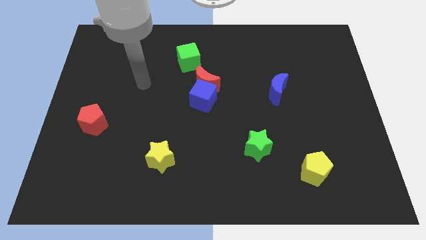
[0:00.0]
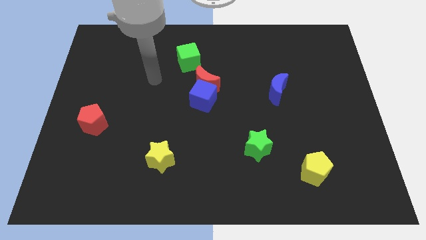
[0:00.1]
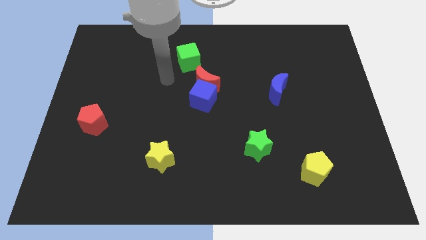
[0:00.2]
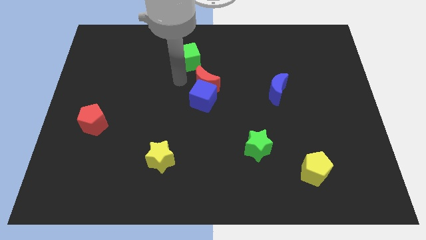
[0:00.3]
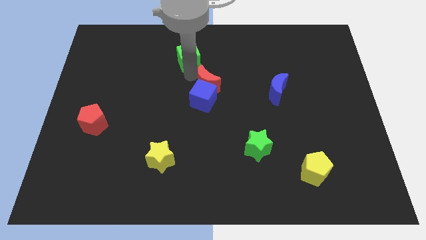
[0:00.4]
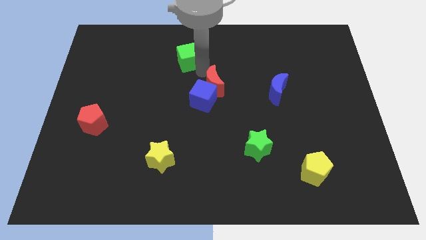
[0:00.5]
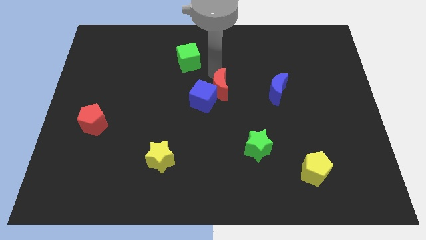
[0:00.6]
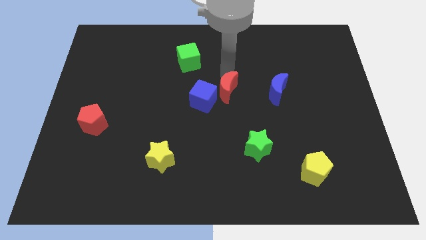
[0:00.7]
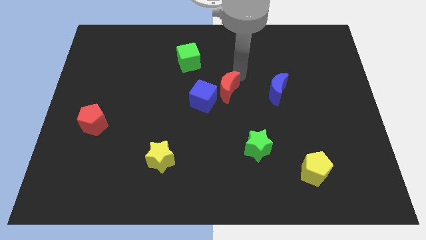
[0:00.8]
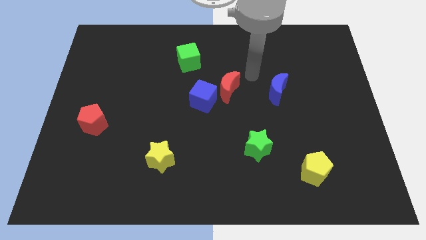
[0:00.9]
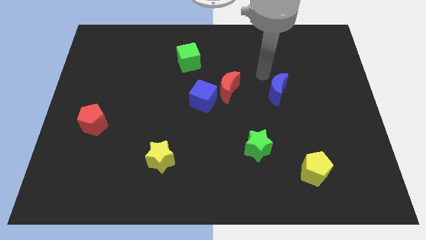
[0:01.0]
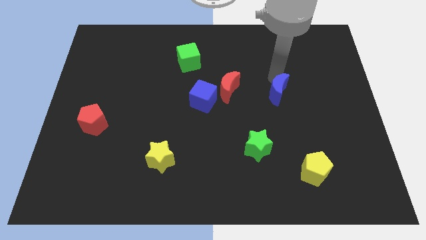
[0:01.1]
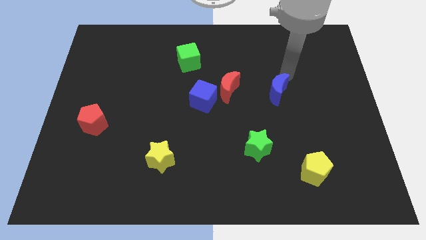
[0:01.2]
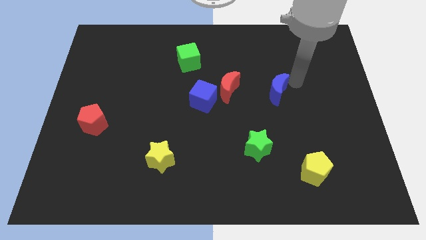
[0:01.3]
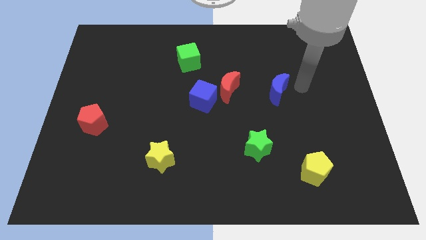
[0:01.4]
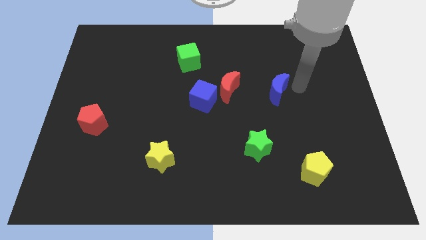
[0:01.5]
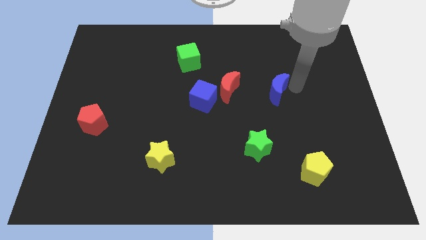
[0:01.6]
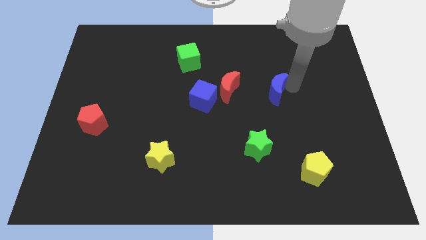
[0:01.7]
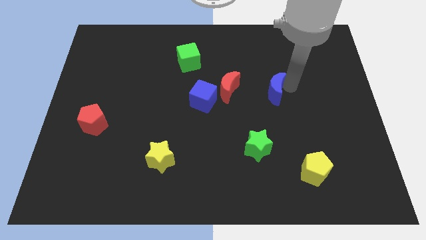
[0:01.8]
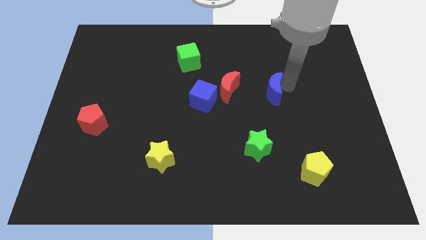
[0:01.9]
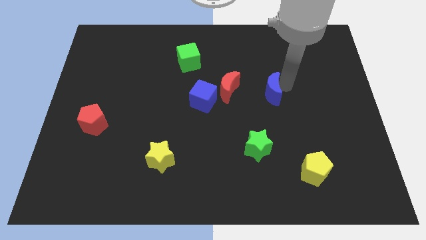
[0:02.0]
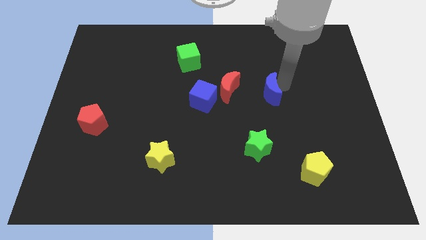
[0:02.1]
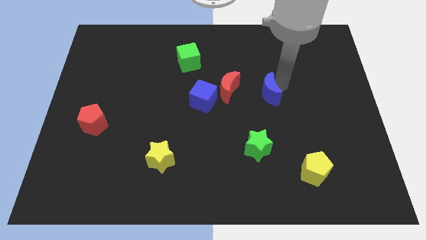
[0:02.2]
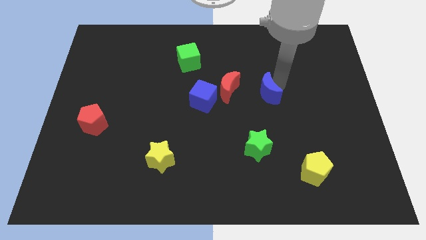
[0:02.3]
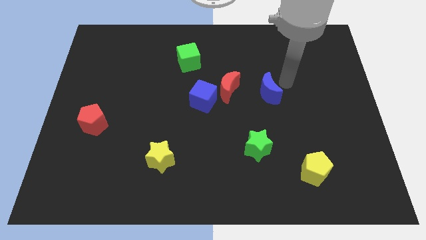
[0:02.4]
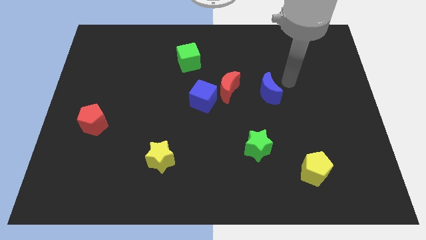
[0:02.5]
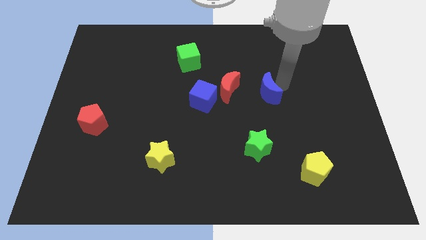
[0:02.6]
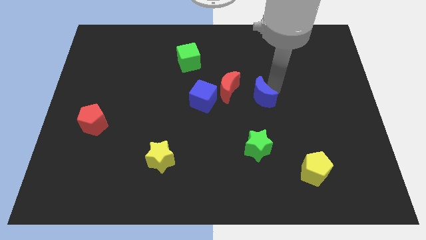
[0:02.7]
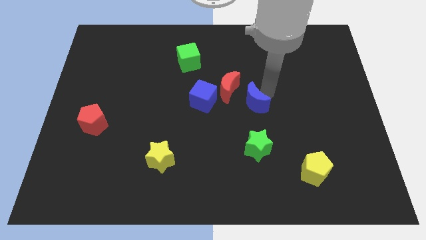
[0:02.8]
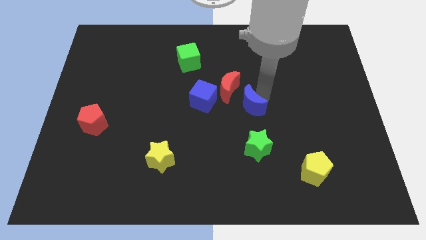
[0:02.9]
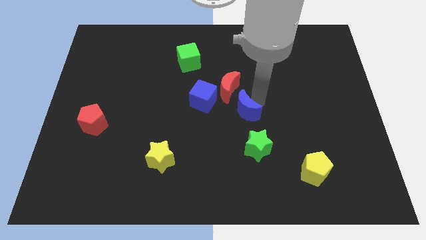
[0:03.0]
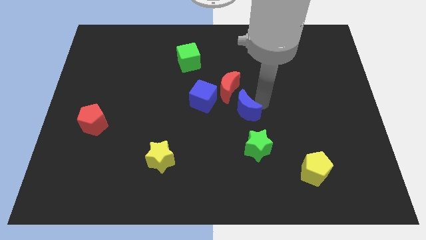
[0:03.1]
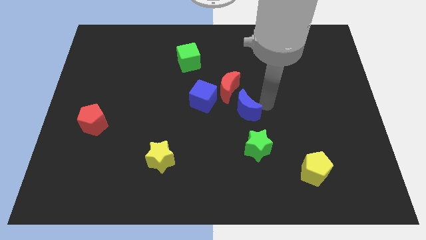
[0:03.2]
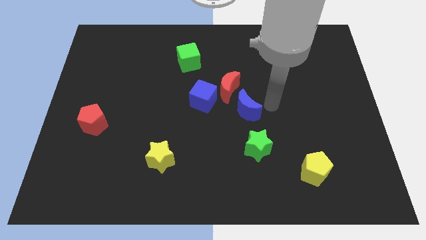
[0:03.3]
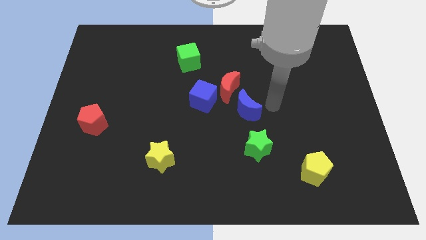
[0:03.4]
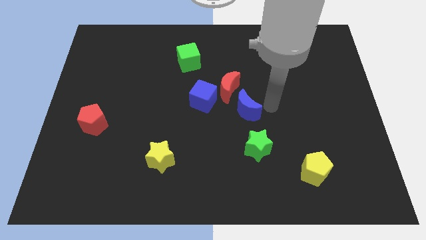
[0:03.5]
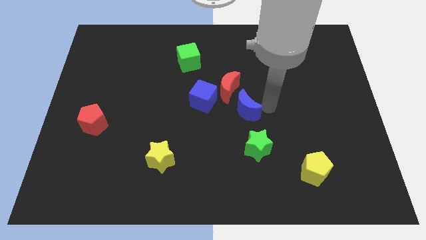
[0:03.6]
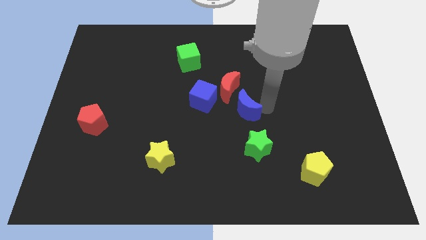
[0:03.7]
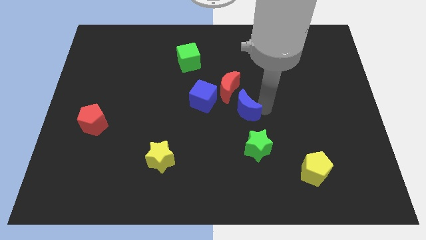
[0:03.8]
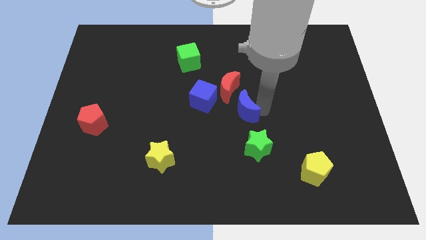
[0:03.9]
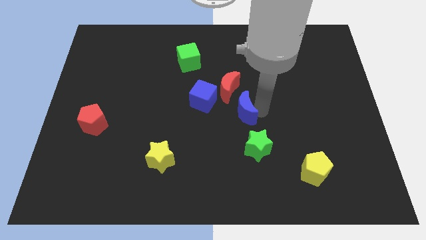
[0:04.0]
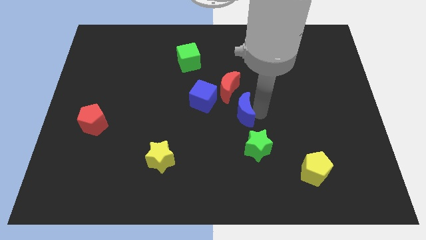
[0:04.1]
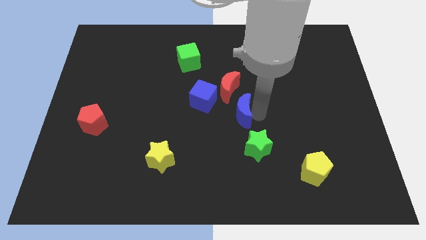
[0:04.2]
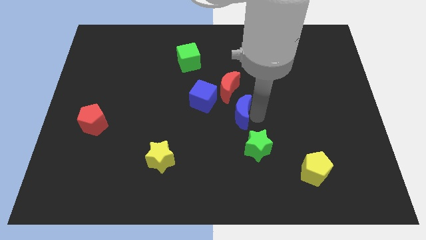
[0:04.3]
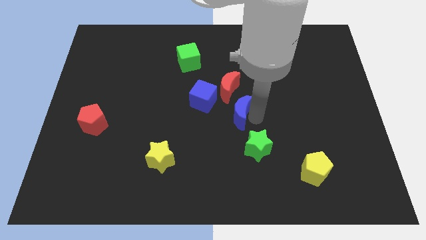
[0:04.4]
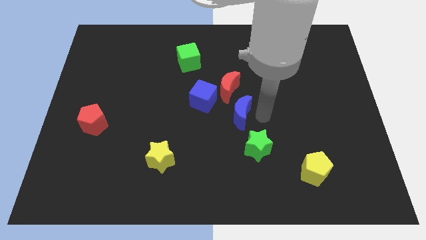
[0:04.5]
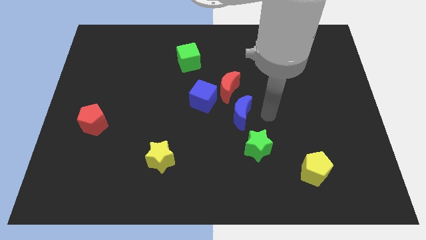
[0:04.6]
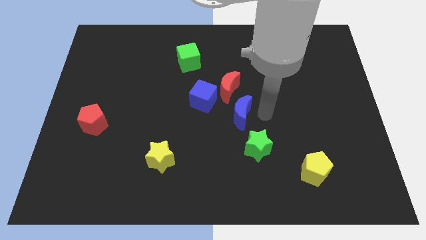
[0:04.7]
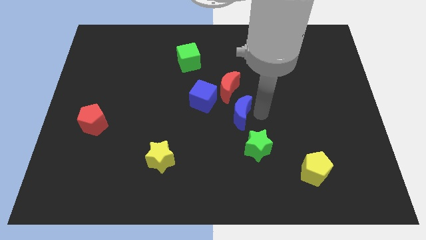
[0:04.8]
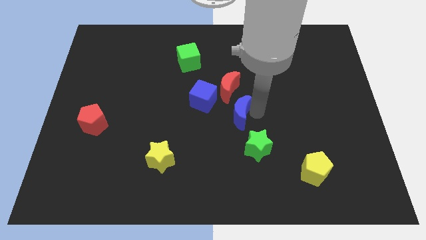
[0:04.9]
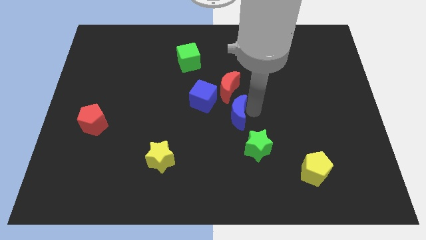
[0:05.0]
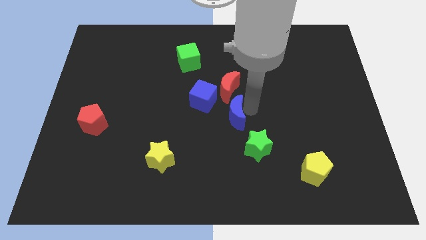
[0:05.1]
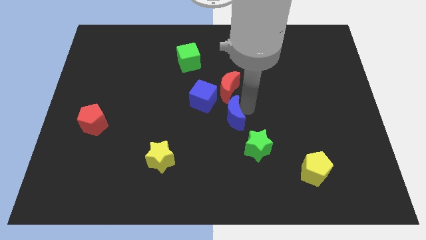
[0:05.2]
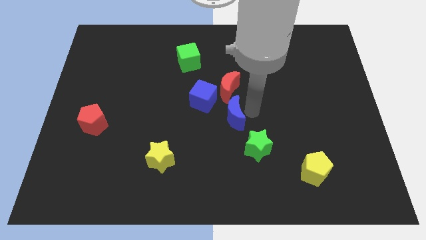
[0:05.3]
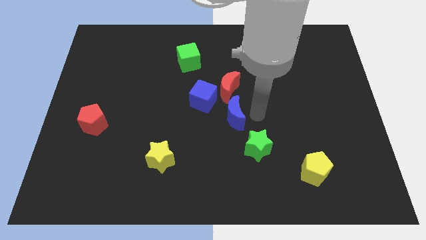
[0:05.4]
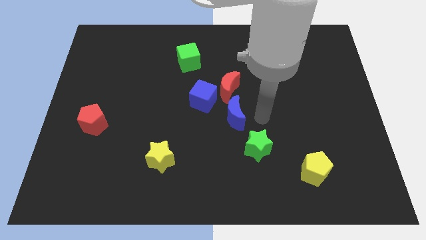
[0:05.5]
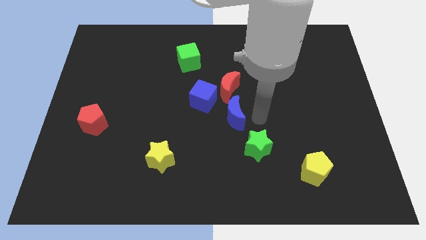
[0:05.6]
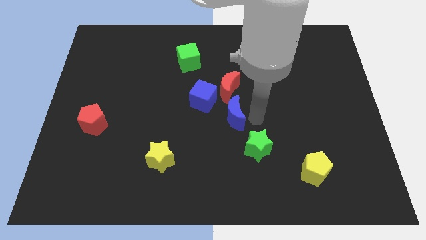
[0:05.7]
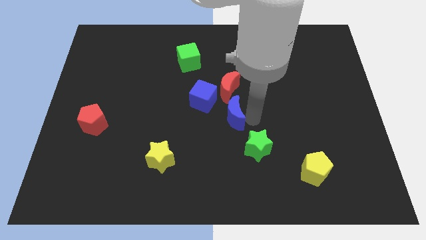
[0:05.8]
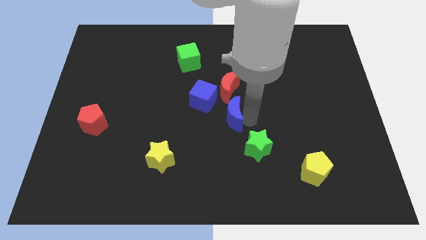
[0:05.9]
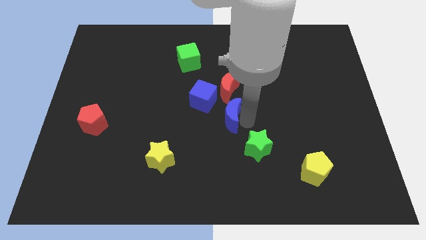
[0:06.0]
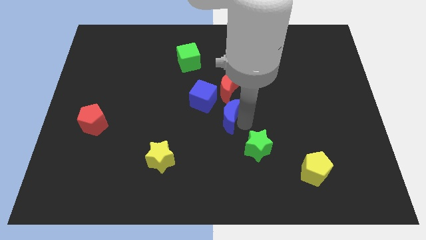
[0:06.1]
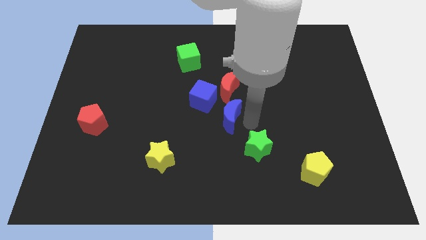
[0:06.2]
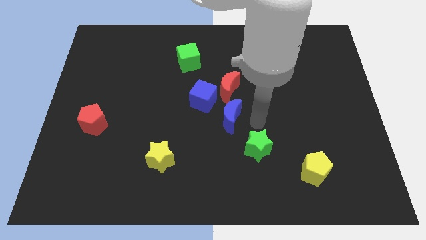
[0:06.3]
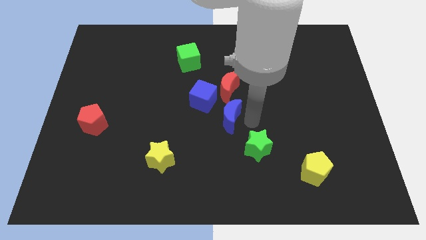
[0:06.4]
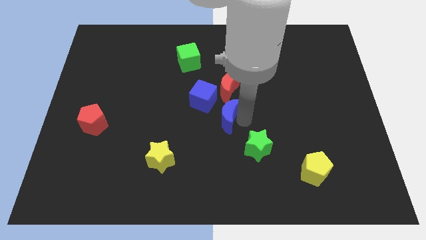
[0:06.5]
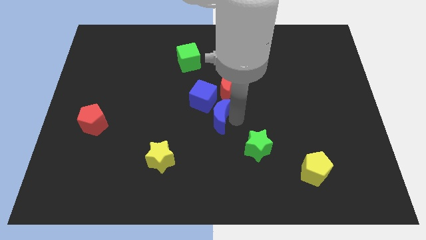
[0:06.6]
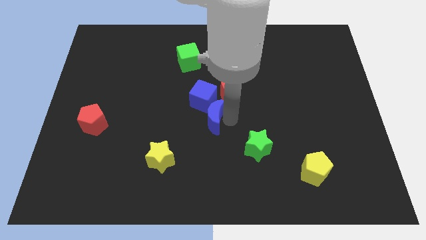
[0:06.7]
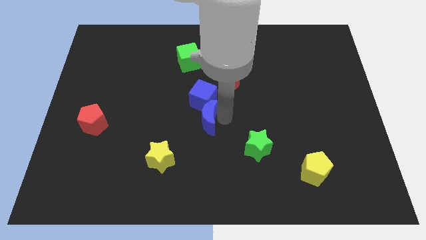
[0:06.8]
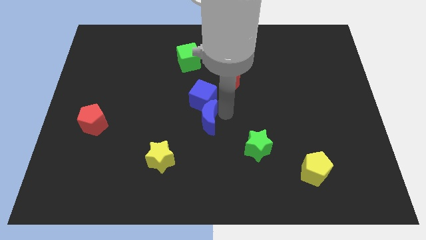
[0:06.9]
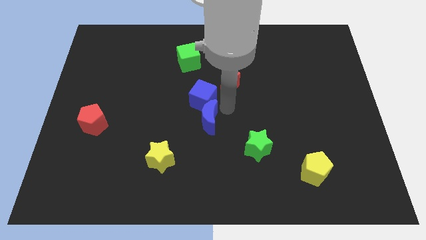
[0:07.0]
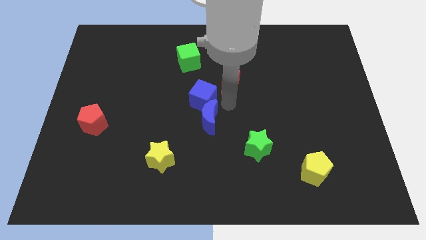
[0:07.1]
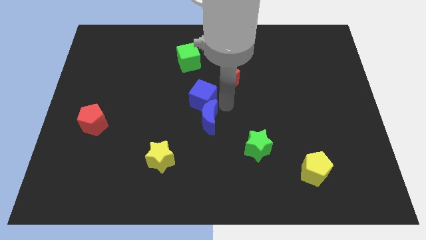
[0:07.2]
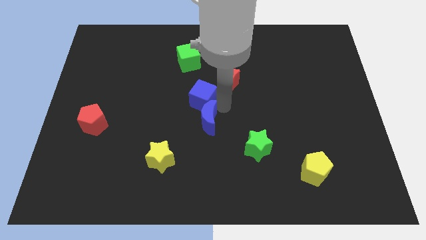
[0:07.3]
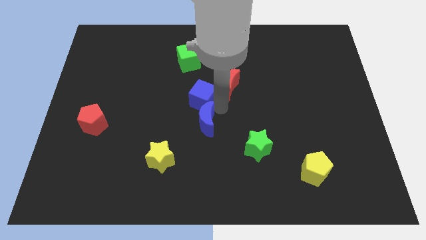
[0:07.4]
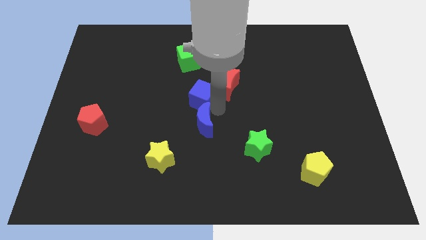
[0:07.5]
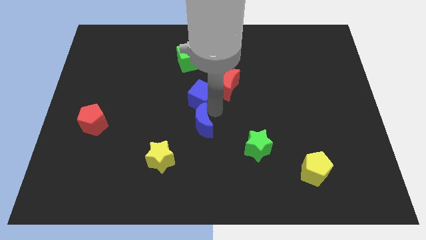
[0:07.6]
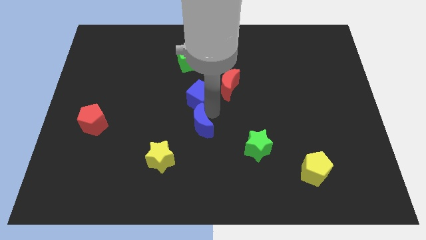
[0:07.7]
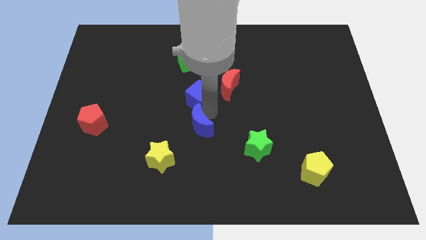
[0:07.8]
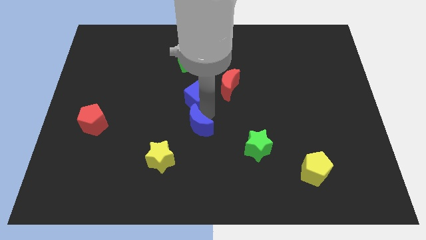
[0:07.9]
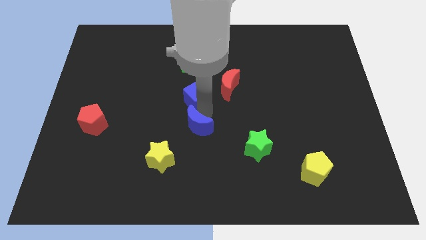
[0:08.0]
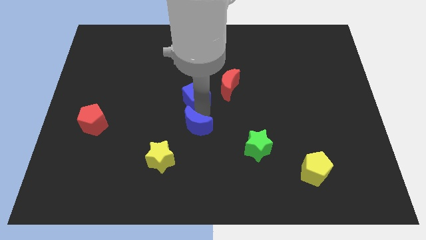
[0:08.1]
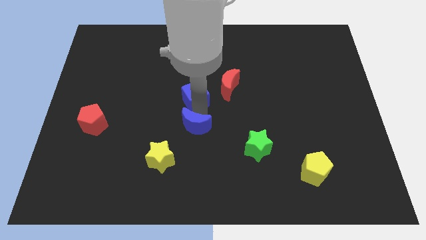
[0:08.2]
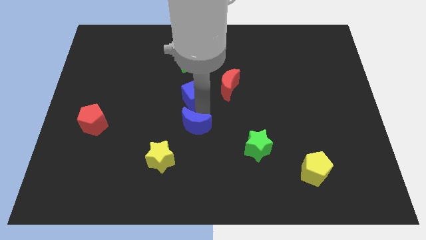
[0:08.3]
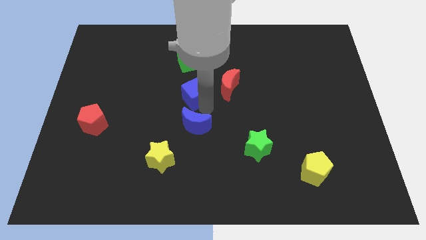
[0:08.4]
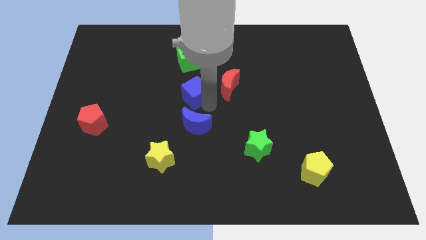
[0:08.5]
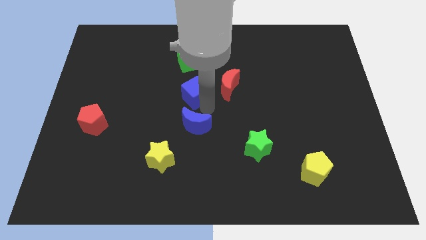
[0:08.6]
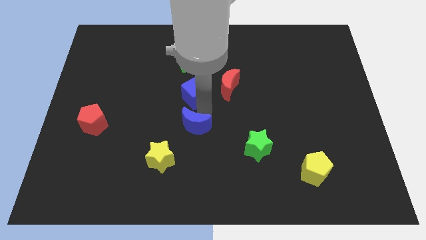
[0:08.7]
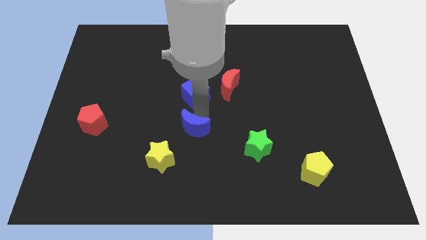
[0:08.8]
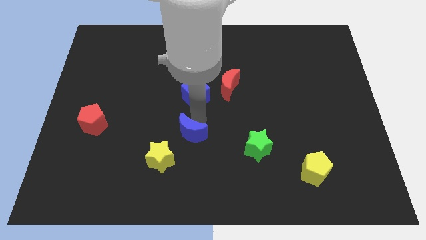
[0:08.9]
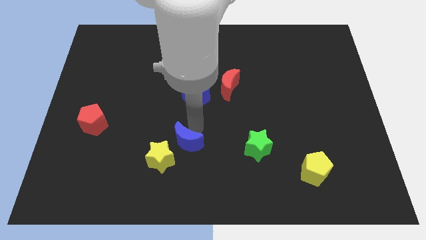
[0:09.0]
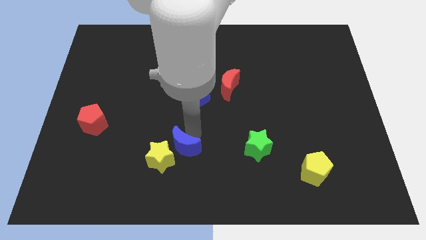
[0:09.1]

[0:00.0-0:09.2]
push the blue moon next to the yellow star
